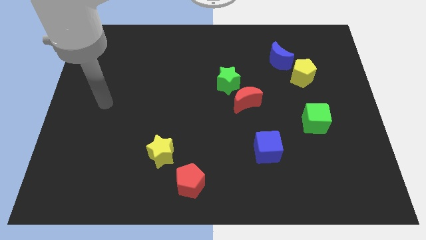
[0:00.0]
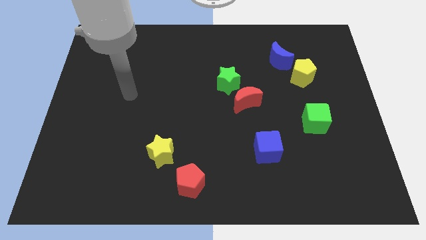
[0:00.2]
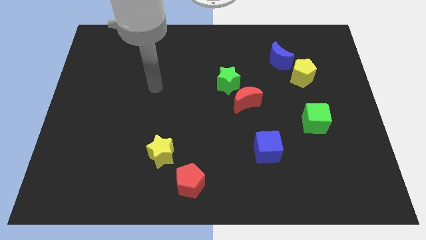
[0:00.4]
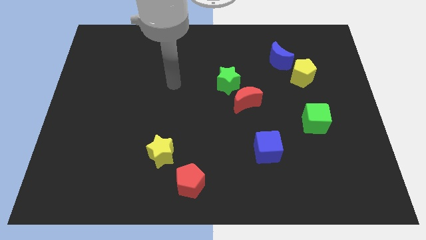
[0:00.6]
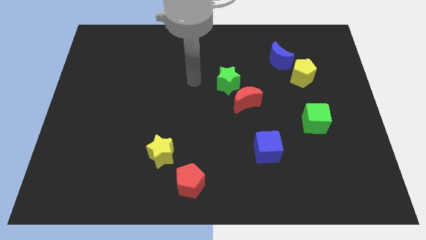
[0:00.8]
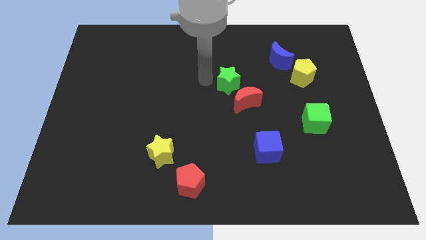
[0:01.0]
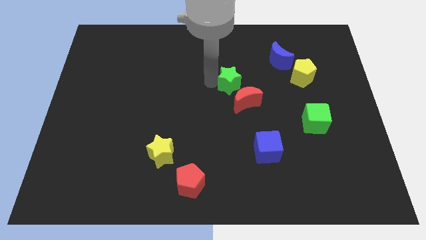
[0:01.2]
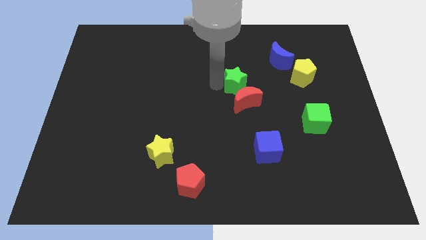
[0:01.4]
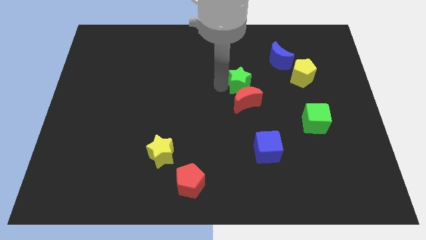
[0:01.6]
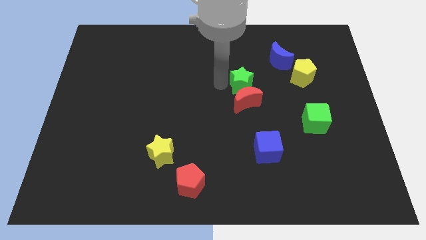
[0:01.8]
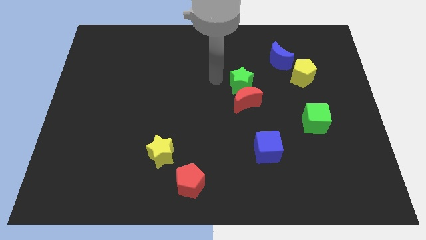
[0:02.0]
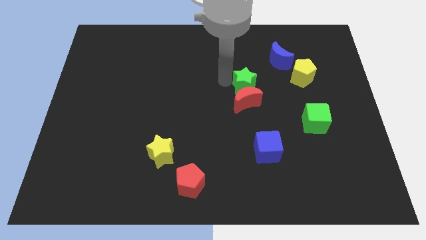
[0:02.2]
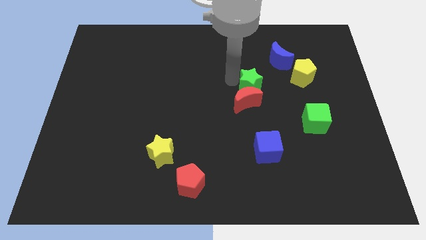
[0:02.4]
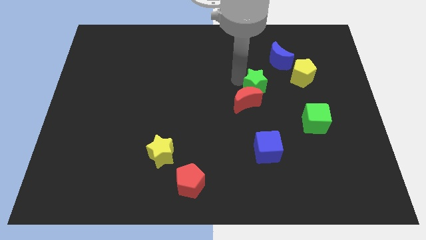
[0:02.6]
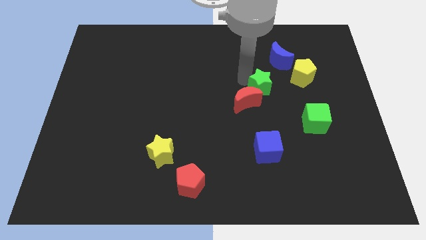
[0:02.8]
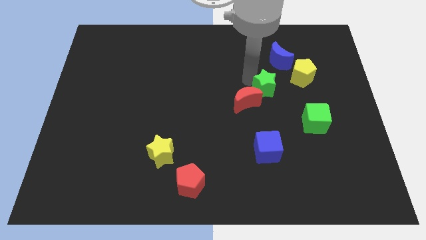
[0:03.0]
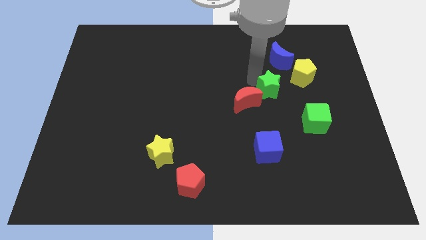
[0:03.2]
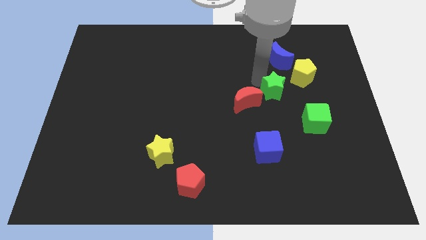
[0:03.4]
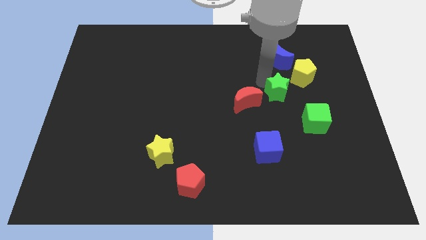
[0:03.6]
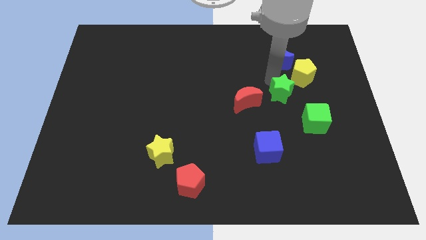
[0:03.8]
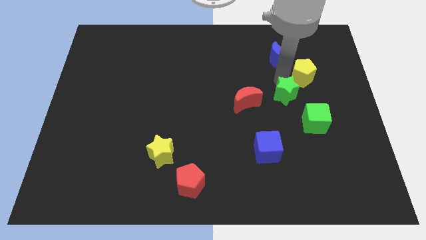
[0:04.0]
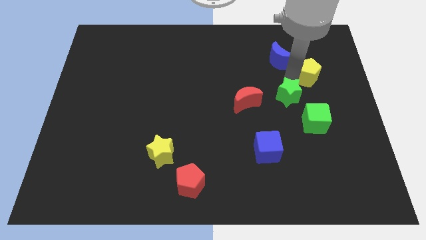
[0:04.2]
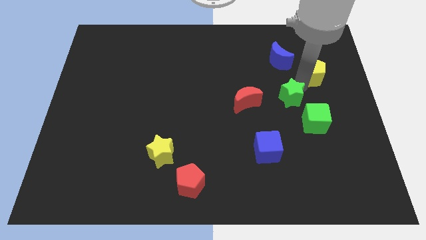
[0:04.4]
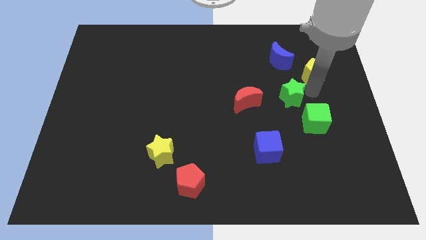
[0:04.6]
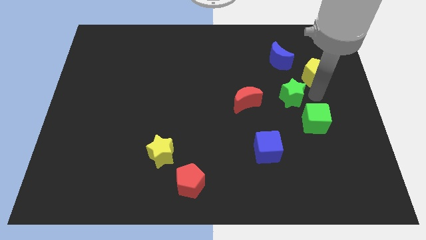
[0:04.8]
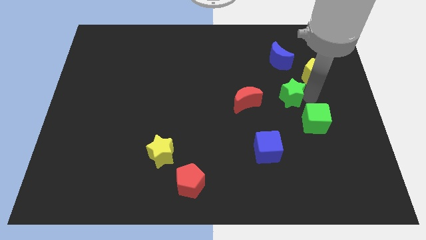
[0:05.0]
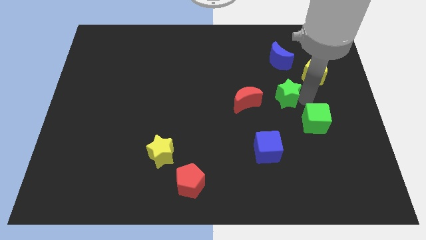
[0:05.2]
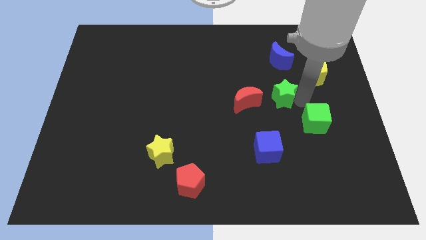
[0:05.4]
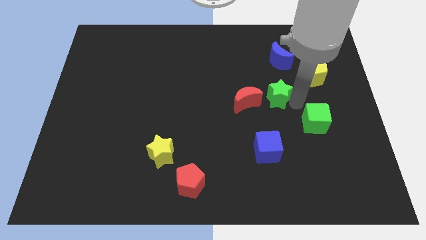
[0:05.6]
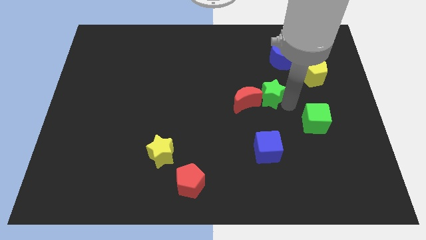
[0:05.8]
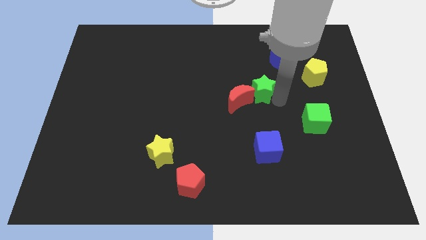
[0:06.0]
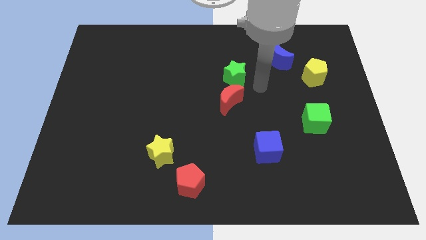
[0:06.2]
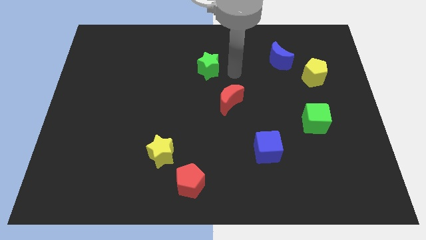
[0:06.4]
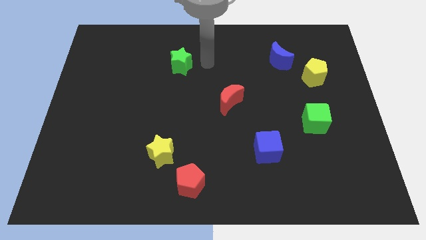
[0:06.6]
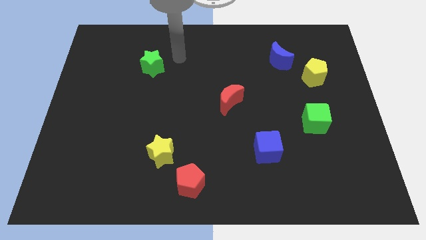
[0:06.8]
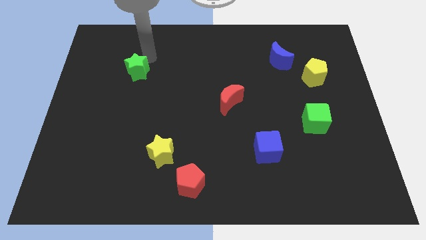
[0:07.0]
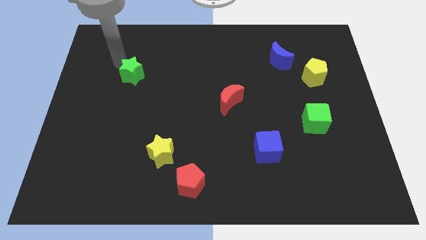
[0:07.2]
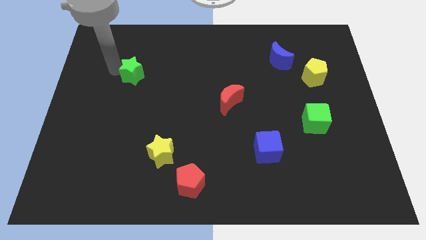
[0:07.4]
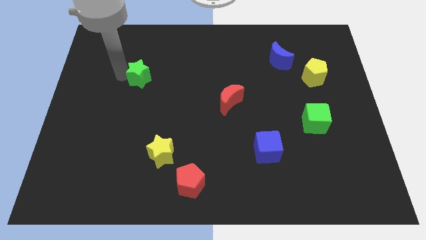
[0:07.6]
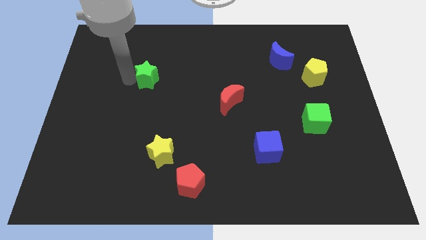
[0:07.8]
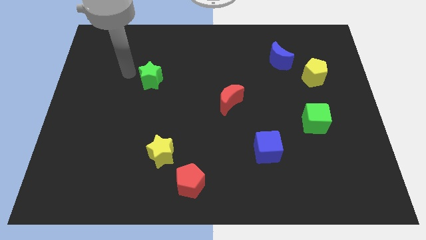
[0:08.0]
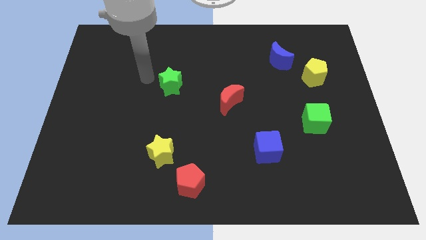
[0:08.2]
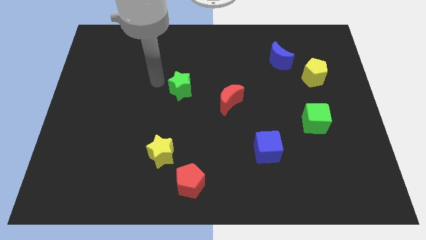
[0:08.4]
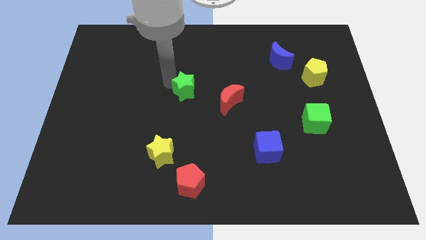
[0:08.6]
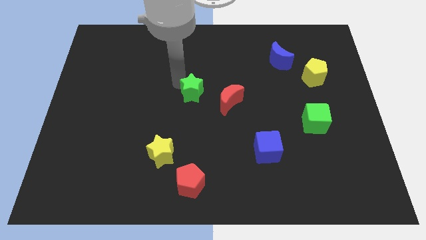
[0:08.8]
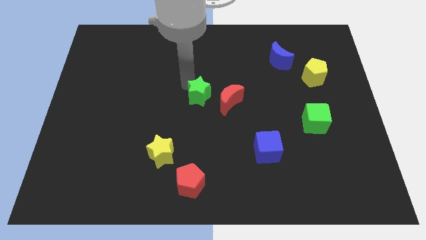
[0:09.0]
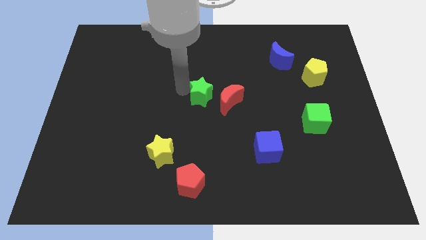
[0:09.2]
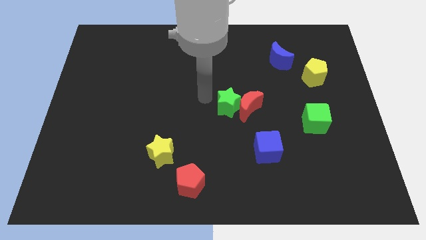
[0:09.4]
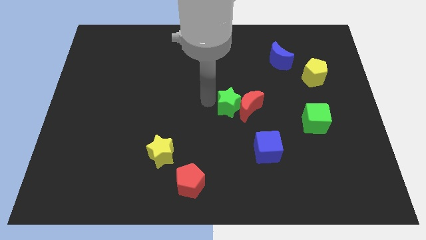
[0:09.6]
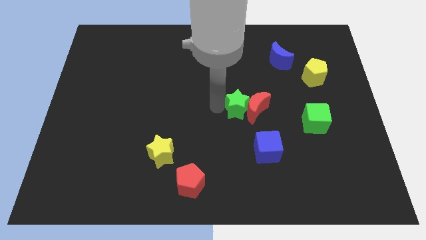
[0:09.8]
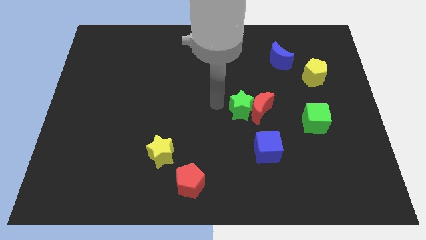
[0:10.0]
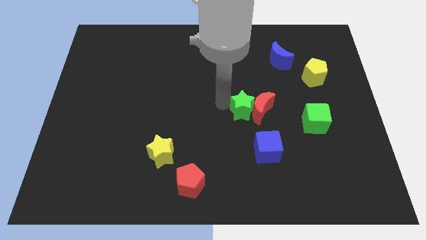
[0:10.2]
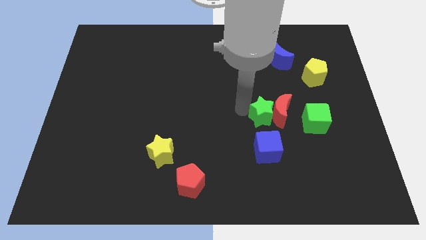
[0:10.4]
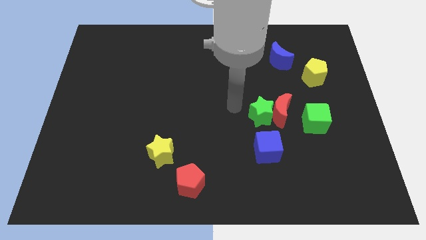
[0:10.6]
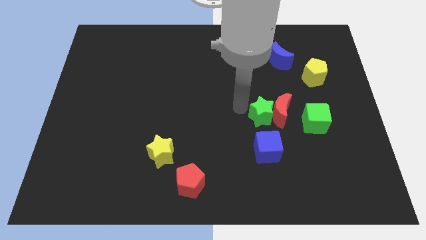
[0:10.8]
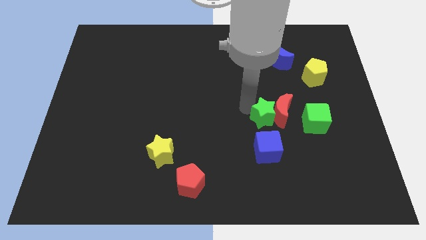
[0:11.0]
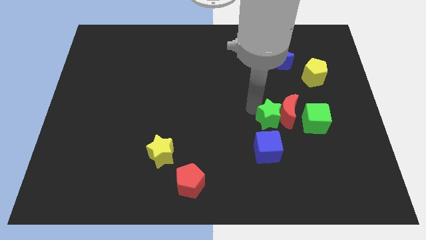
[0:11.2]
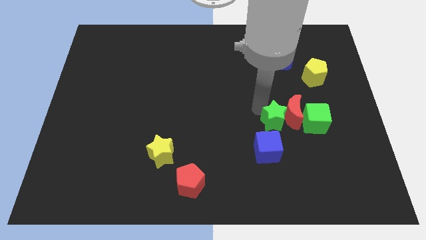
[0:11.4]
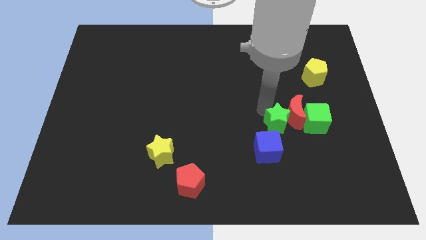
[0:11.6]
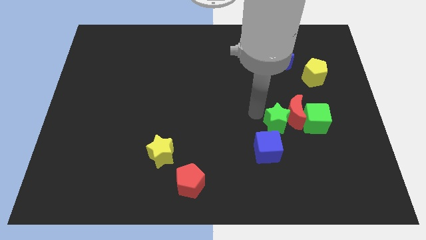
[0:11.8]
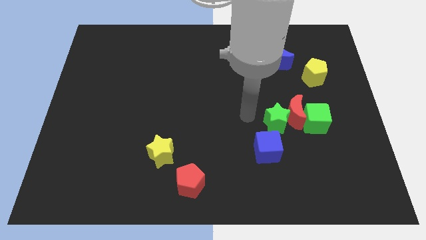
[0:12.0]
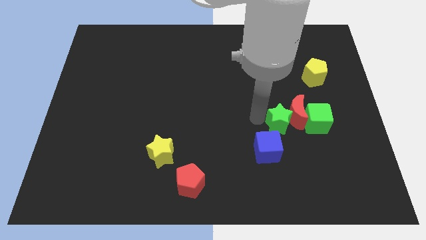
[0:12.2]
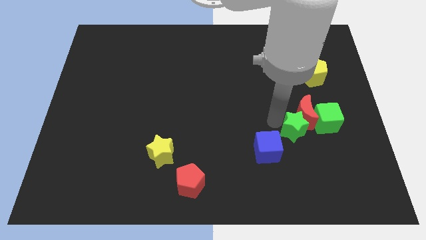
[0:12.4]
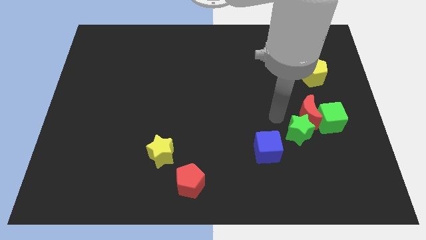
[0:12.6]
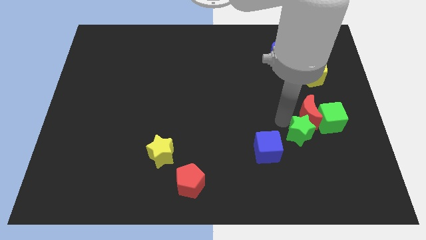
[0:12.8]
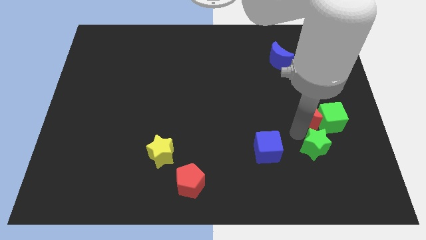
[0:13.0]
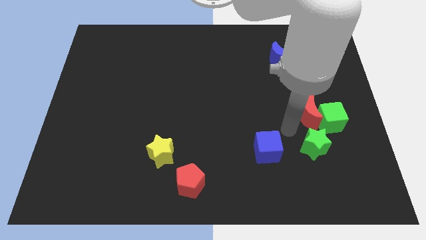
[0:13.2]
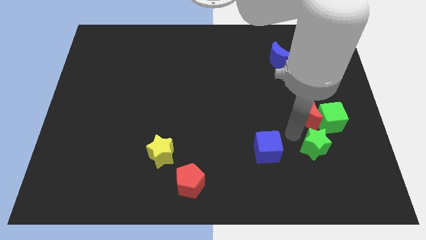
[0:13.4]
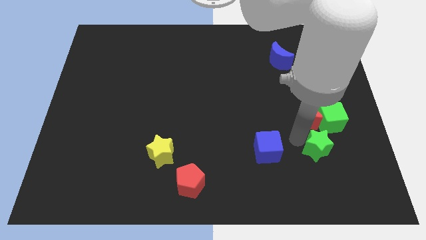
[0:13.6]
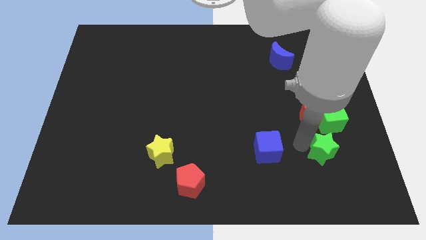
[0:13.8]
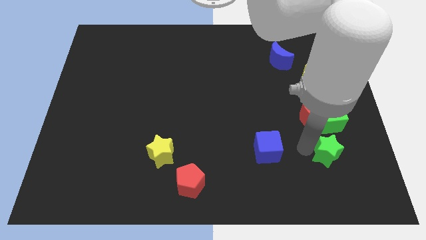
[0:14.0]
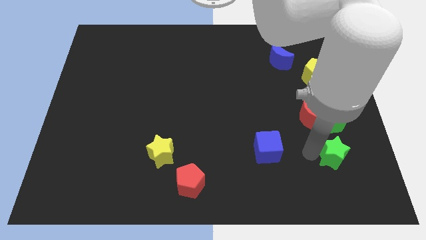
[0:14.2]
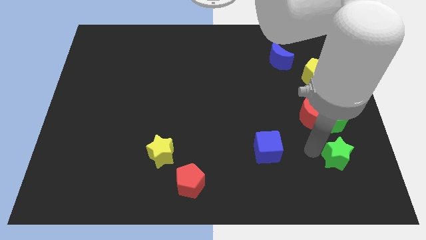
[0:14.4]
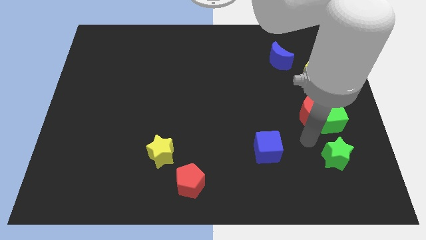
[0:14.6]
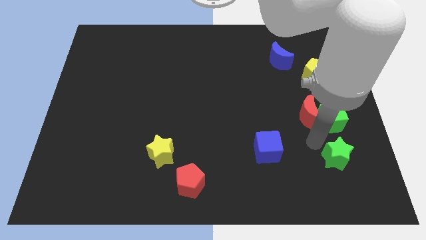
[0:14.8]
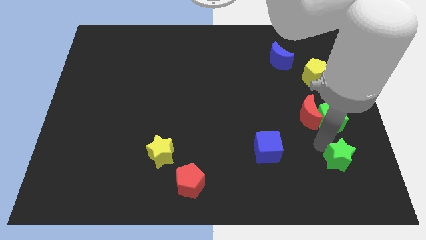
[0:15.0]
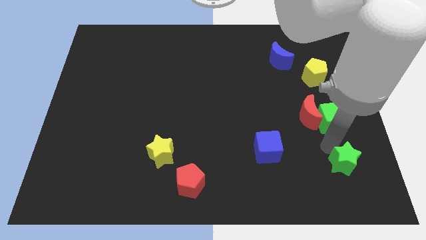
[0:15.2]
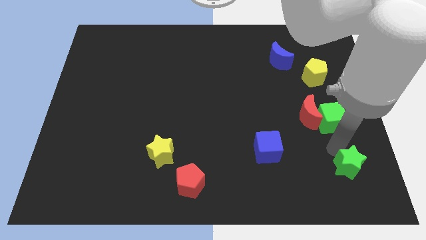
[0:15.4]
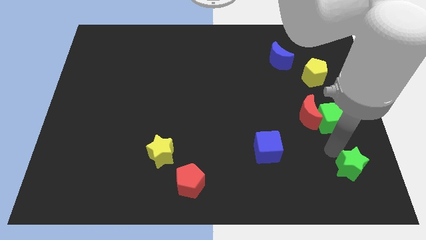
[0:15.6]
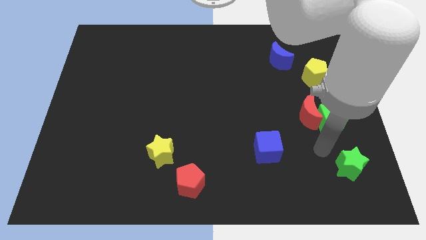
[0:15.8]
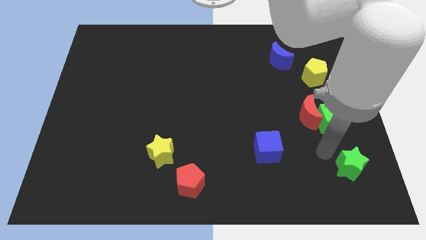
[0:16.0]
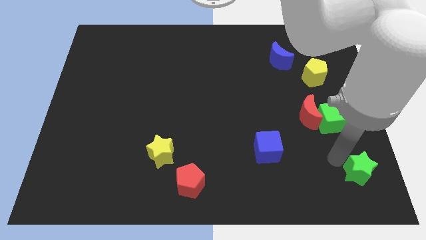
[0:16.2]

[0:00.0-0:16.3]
move the green star to the lower right corner
